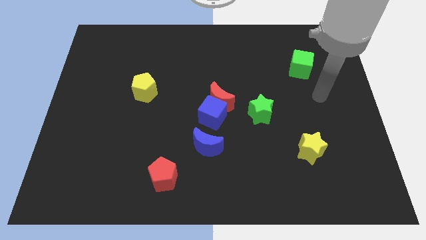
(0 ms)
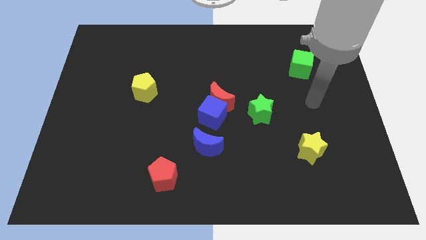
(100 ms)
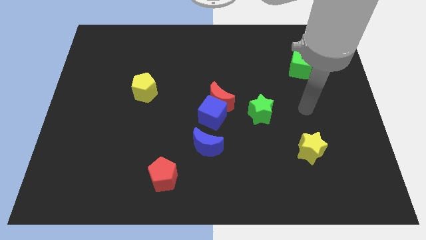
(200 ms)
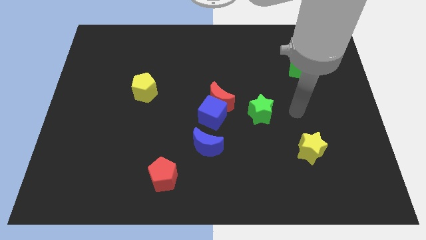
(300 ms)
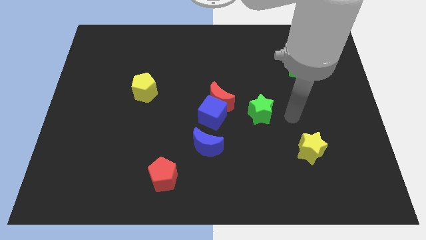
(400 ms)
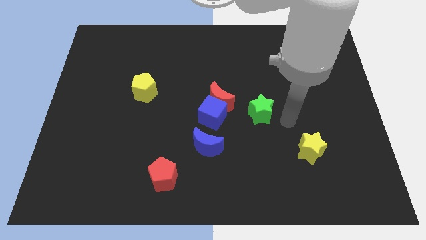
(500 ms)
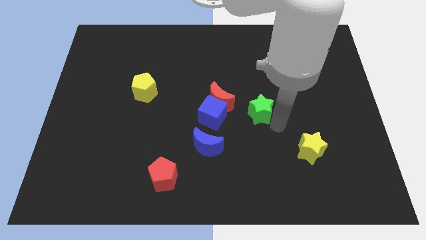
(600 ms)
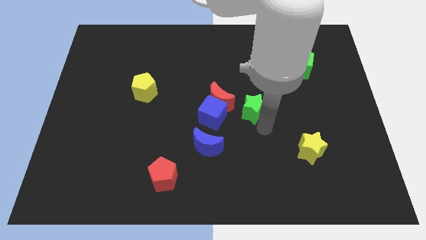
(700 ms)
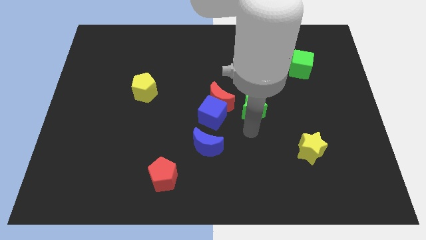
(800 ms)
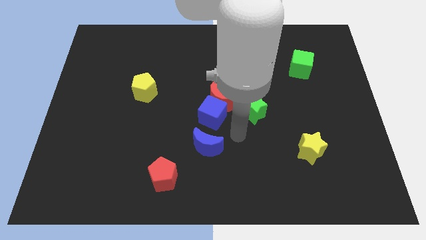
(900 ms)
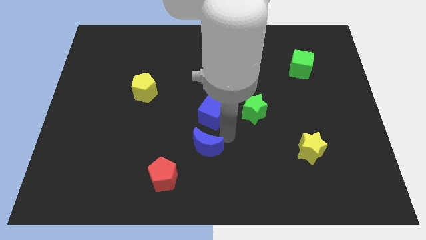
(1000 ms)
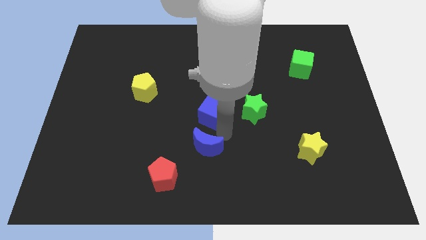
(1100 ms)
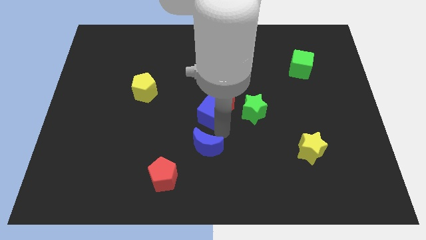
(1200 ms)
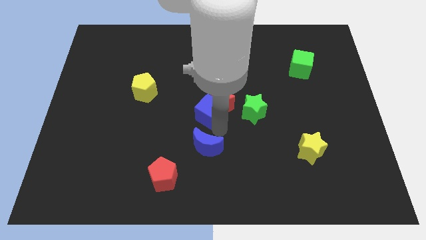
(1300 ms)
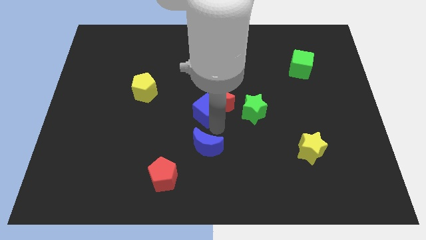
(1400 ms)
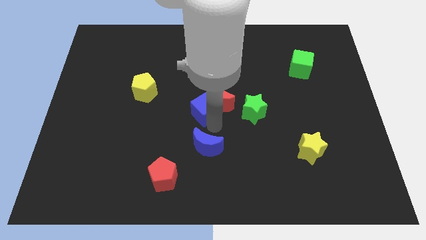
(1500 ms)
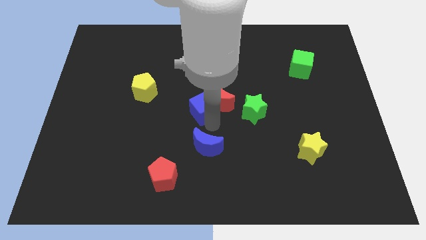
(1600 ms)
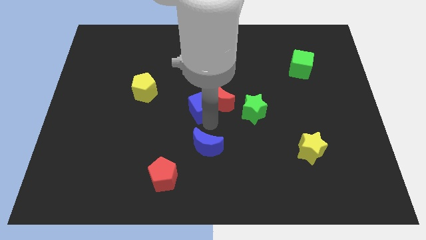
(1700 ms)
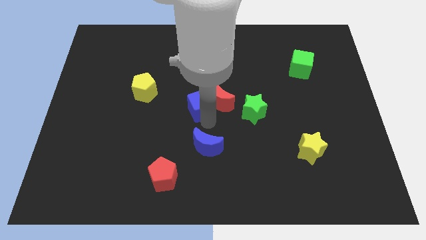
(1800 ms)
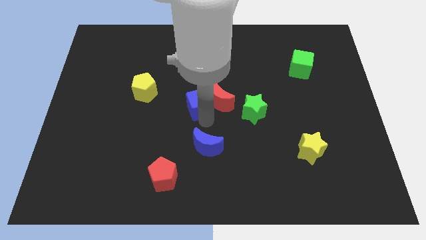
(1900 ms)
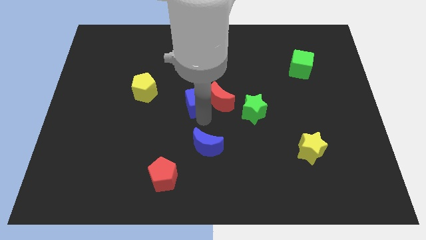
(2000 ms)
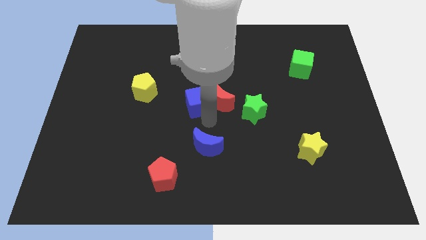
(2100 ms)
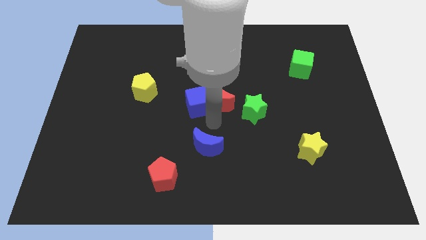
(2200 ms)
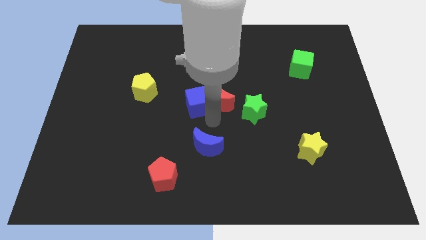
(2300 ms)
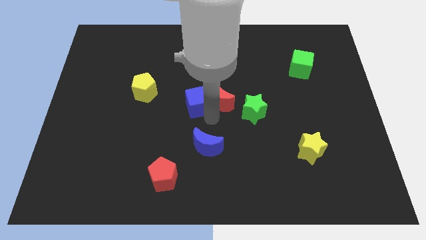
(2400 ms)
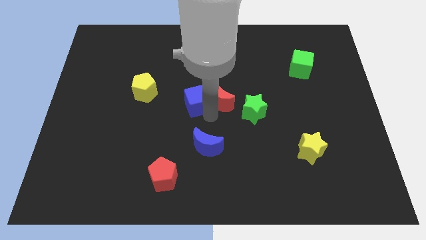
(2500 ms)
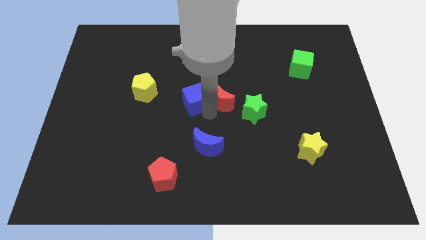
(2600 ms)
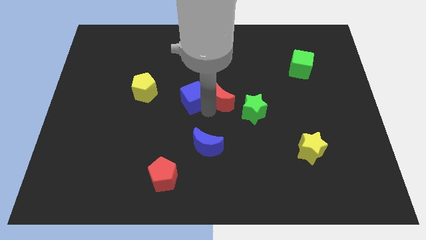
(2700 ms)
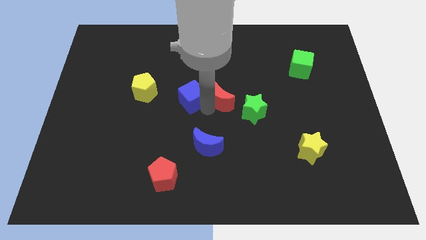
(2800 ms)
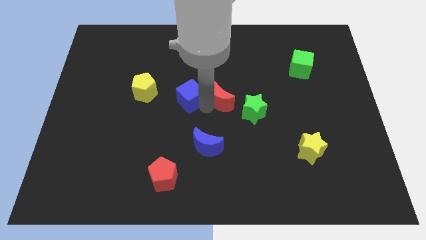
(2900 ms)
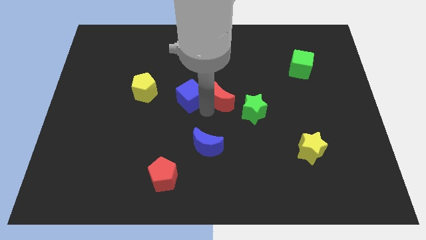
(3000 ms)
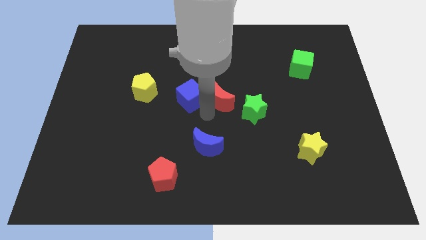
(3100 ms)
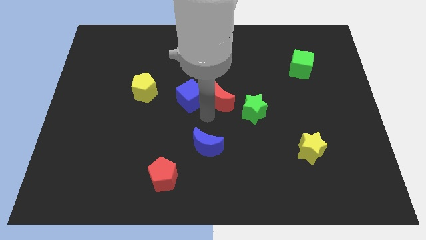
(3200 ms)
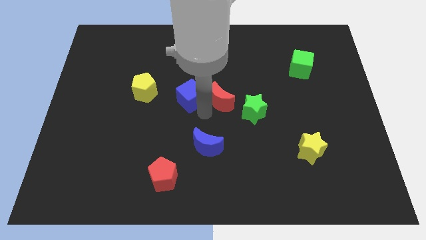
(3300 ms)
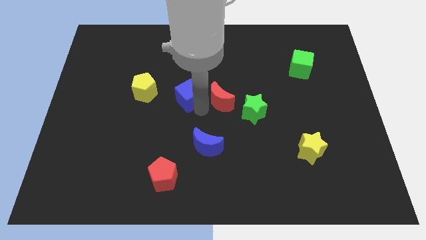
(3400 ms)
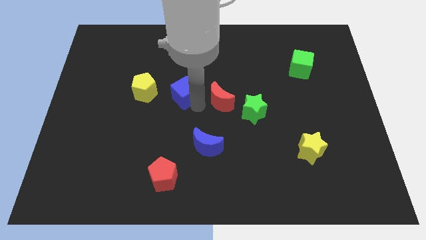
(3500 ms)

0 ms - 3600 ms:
move the blue cube away from the red moon and blue moon

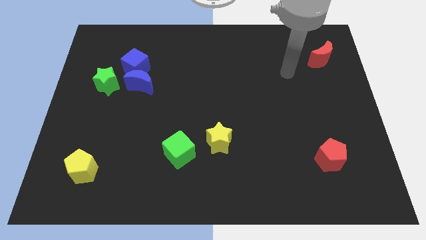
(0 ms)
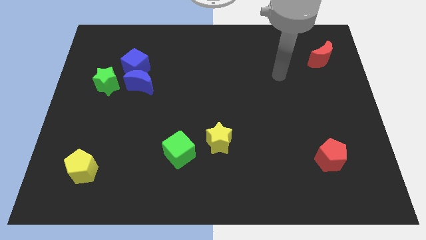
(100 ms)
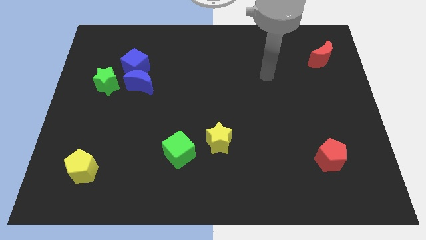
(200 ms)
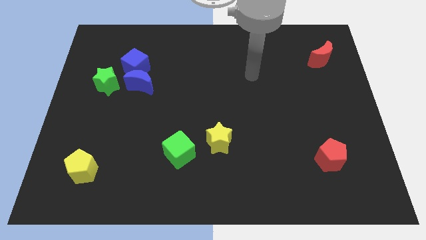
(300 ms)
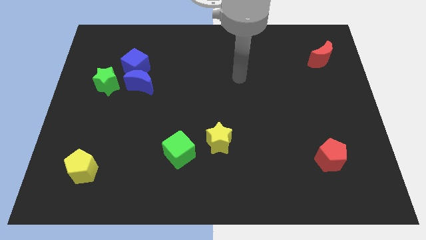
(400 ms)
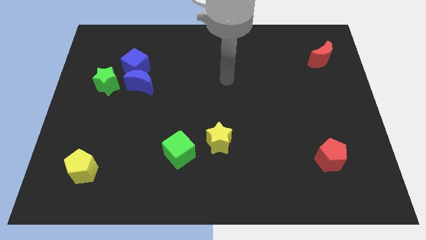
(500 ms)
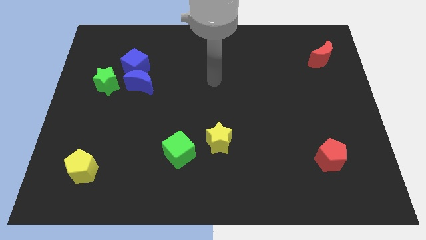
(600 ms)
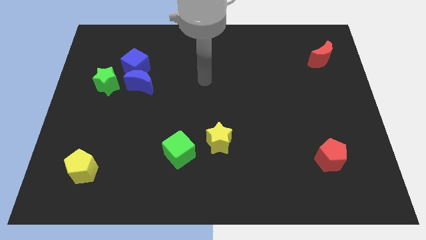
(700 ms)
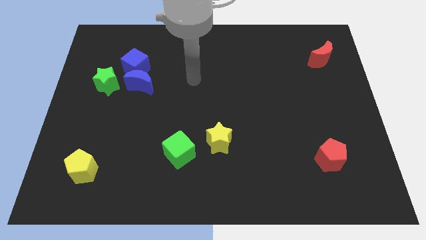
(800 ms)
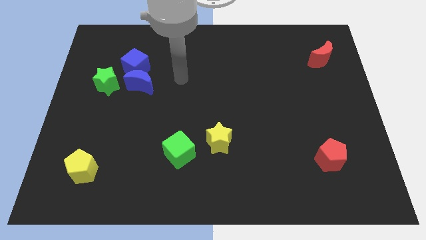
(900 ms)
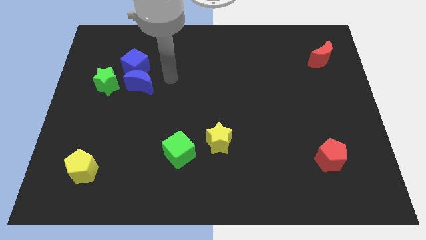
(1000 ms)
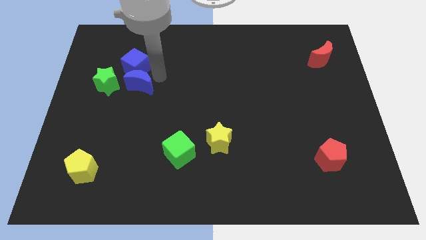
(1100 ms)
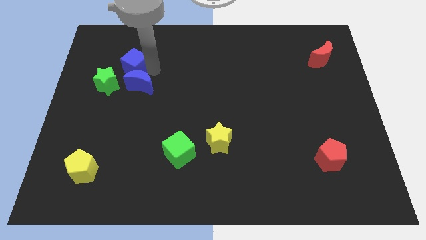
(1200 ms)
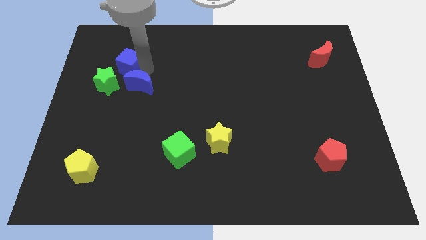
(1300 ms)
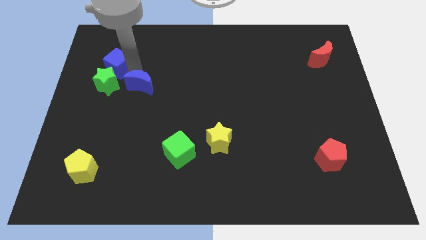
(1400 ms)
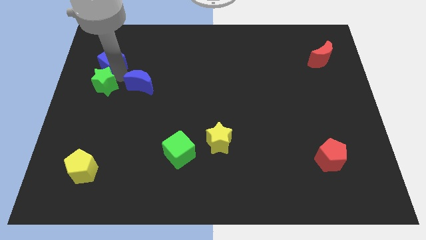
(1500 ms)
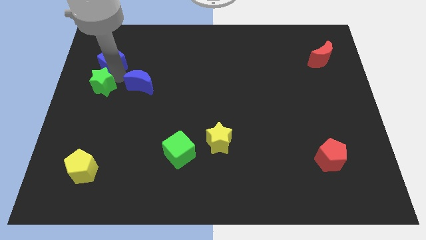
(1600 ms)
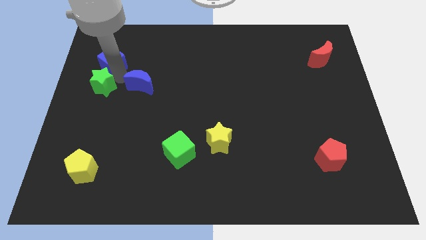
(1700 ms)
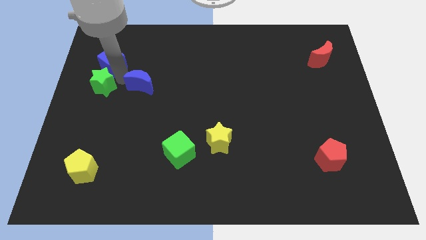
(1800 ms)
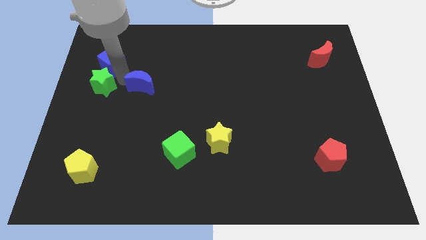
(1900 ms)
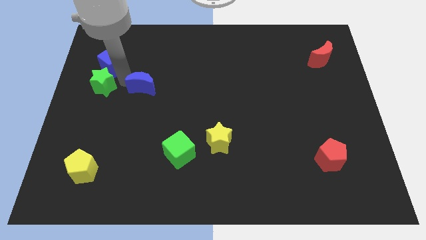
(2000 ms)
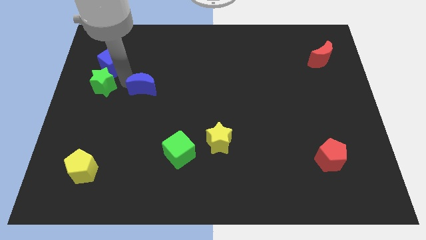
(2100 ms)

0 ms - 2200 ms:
pull the blue moon apart from the blue cube and green star

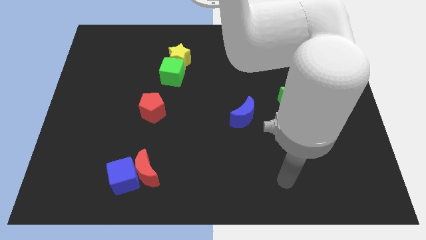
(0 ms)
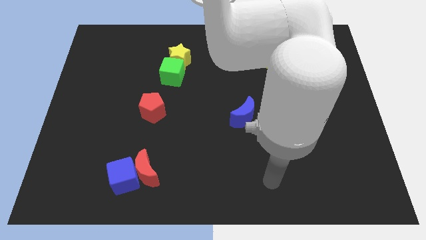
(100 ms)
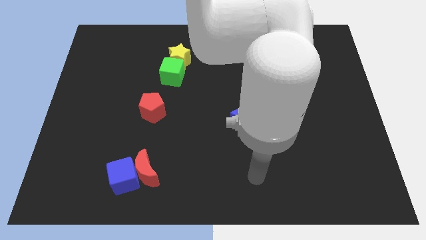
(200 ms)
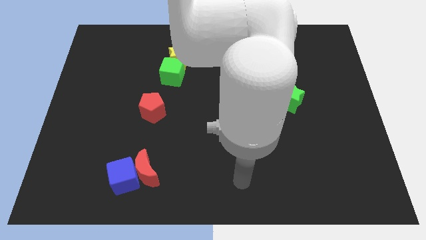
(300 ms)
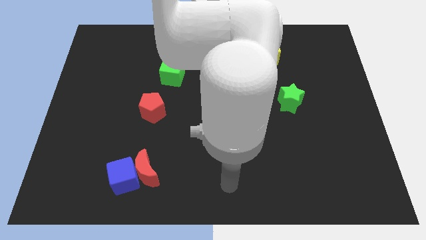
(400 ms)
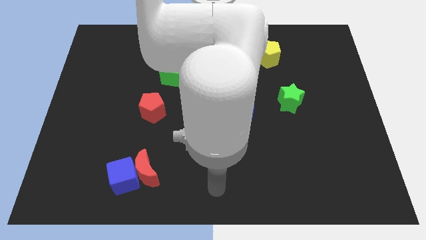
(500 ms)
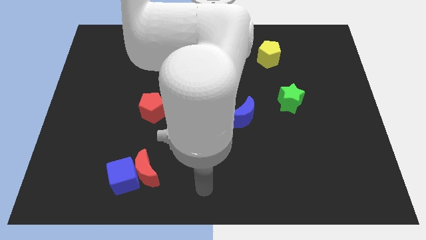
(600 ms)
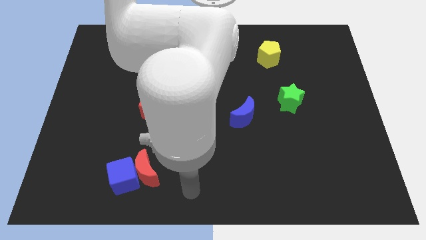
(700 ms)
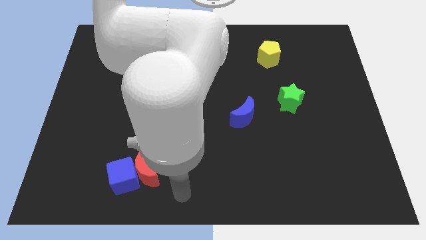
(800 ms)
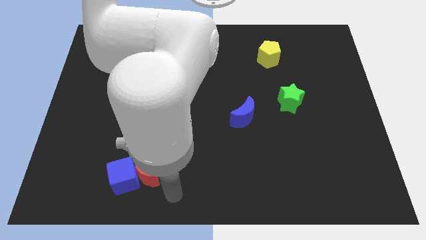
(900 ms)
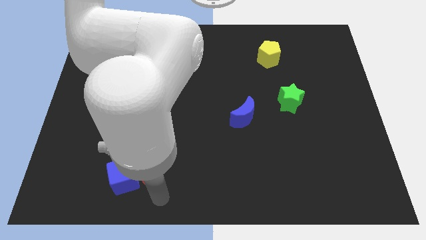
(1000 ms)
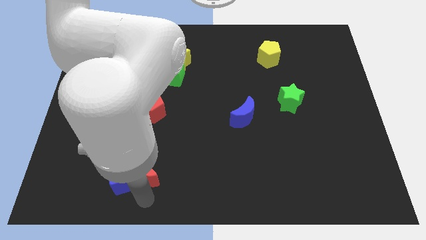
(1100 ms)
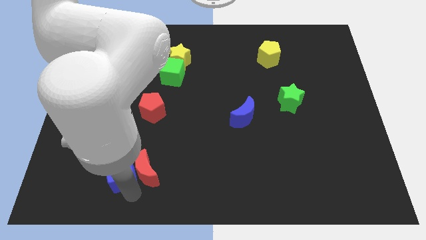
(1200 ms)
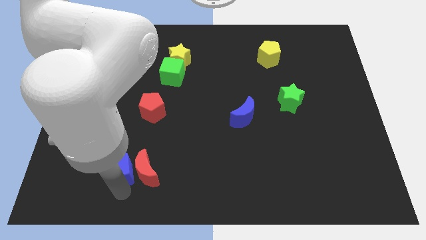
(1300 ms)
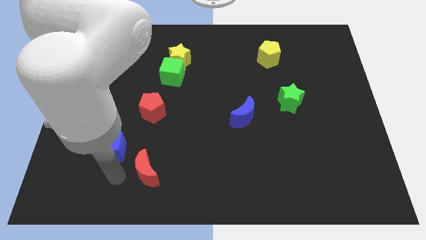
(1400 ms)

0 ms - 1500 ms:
separate the red moon from the blue cube

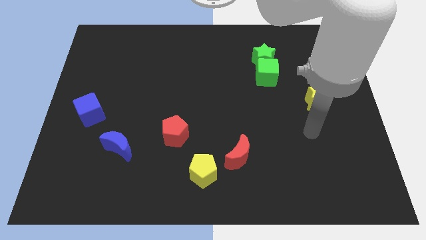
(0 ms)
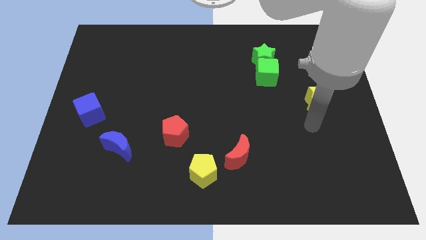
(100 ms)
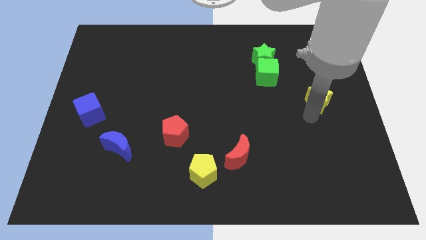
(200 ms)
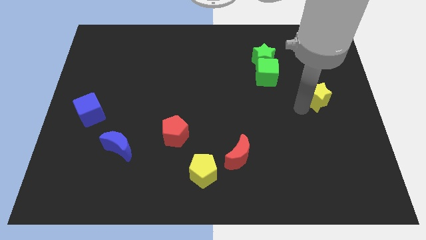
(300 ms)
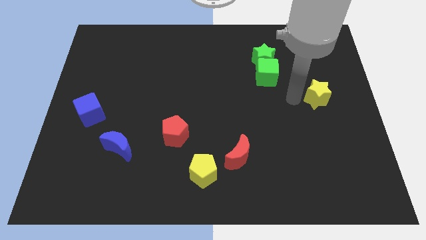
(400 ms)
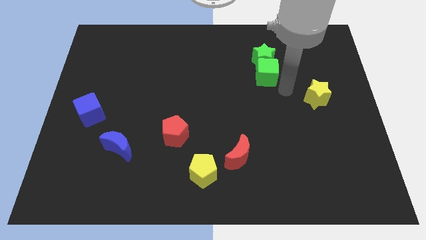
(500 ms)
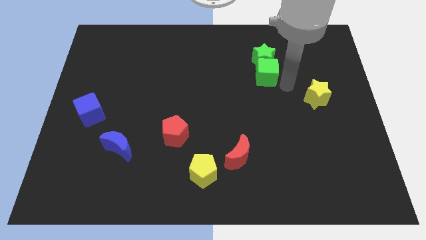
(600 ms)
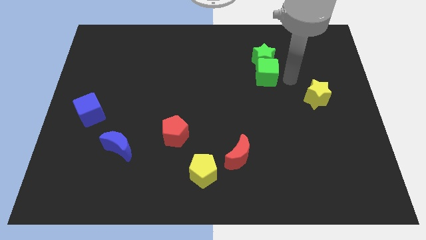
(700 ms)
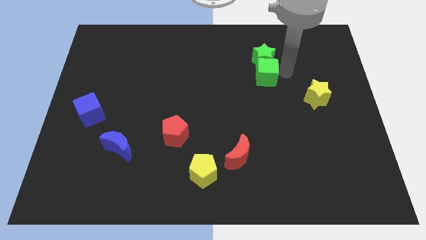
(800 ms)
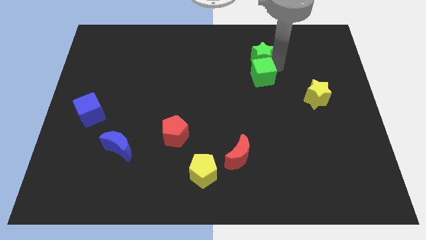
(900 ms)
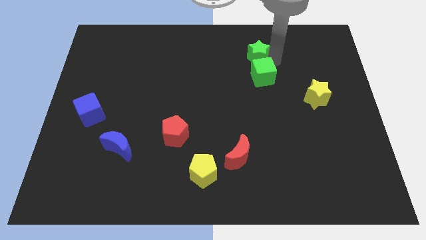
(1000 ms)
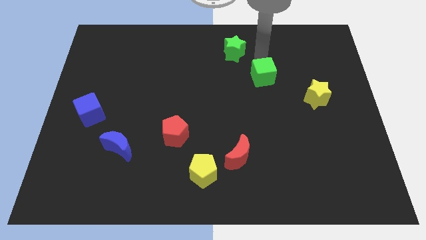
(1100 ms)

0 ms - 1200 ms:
pull the green cube apart from the green star

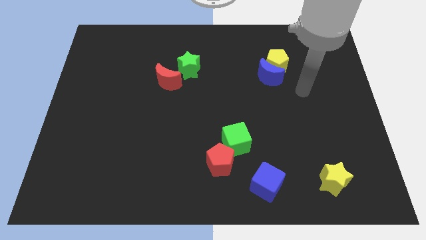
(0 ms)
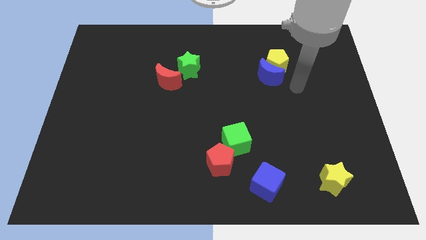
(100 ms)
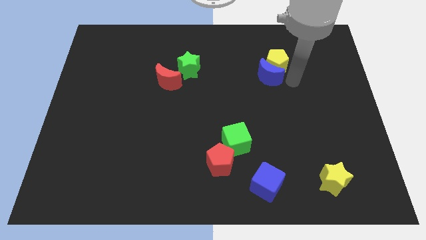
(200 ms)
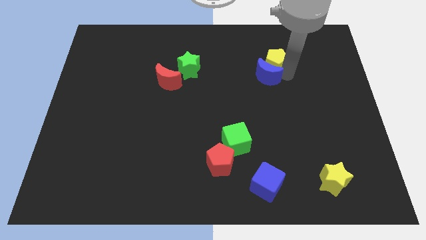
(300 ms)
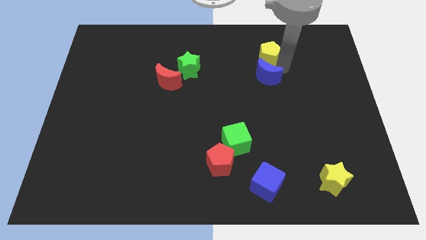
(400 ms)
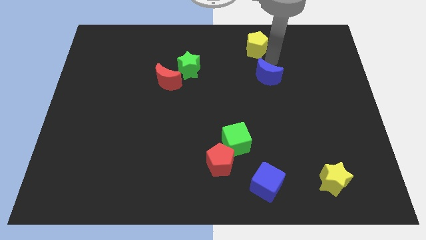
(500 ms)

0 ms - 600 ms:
pull the blue moon apart from the yellow pentagon

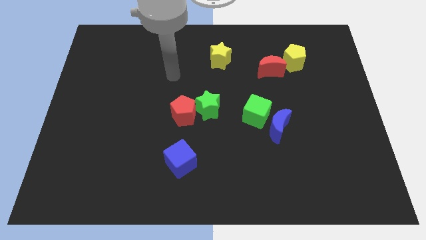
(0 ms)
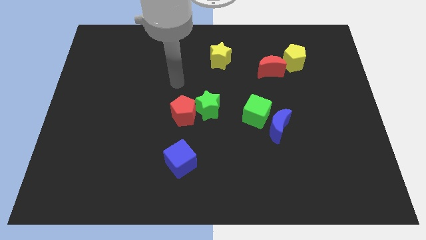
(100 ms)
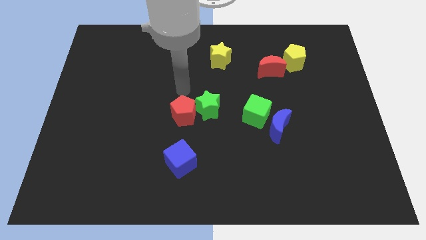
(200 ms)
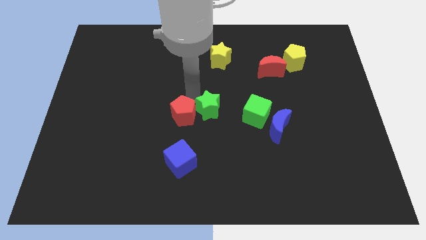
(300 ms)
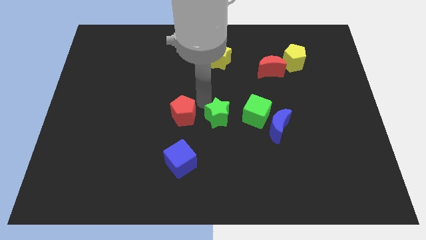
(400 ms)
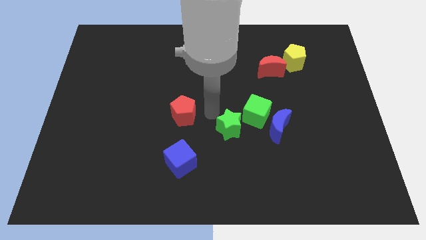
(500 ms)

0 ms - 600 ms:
separate the red pentagon from the green star
